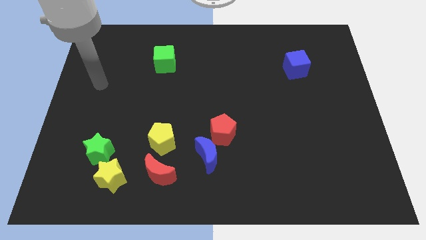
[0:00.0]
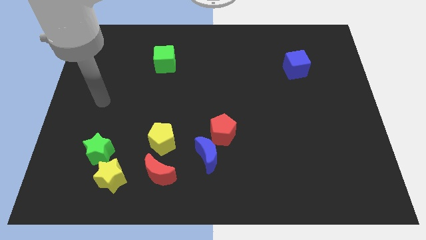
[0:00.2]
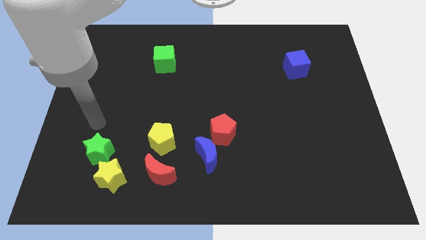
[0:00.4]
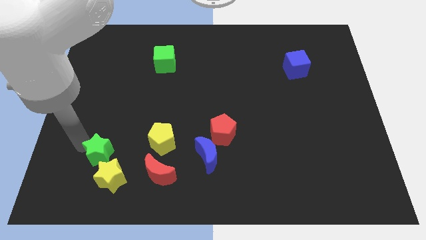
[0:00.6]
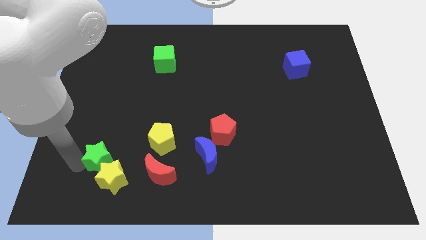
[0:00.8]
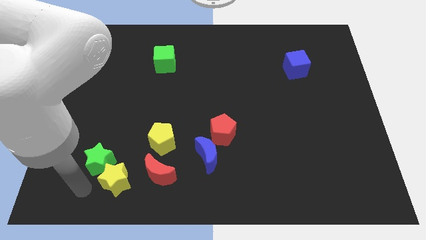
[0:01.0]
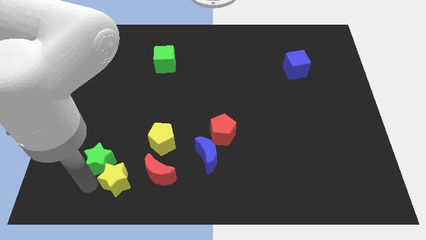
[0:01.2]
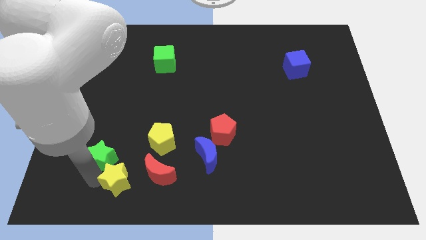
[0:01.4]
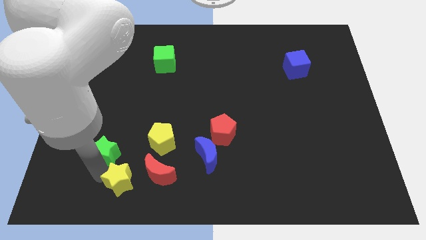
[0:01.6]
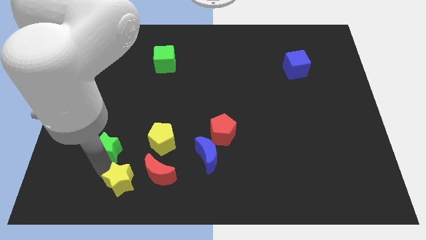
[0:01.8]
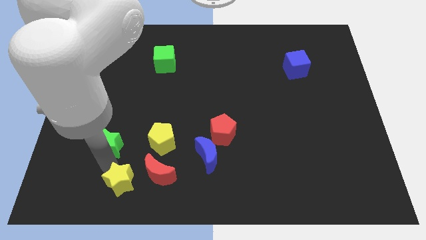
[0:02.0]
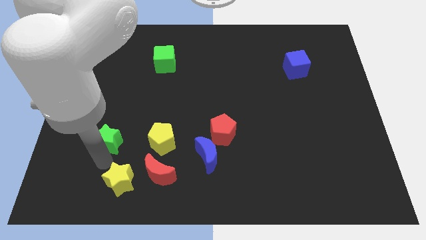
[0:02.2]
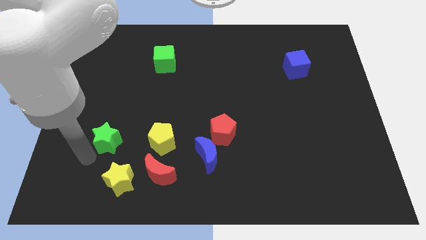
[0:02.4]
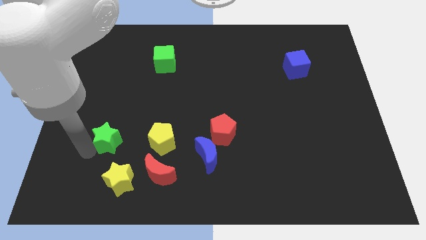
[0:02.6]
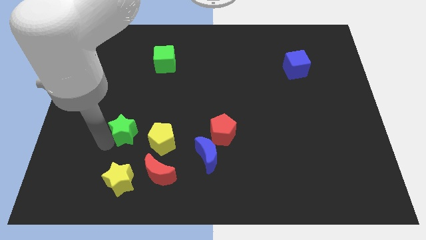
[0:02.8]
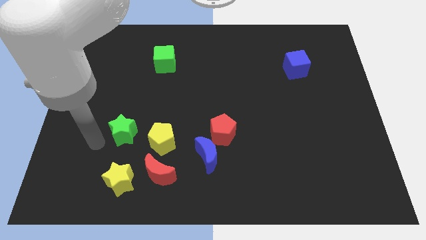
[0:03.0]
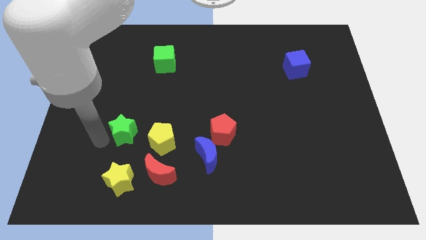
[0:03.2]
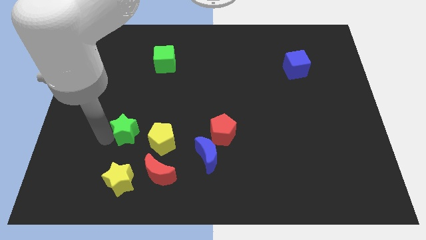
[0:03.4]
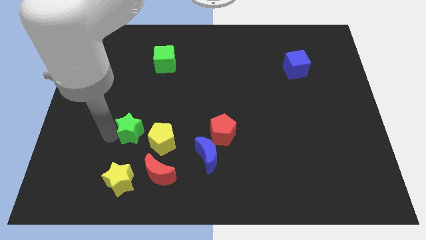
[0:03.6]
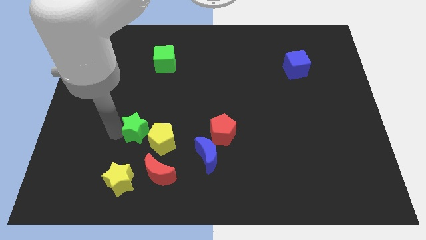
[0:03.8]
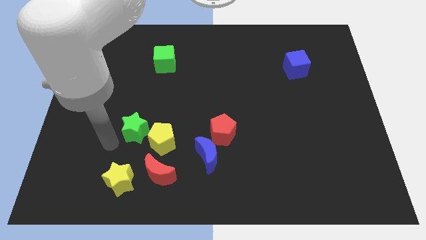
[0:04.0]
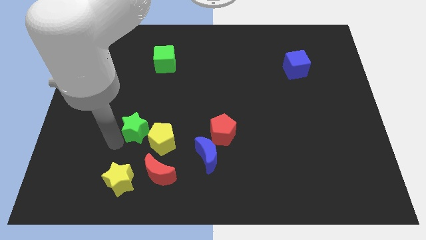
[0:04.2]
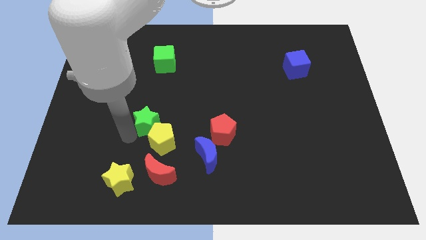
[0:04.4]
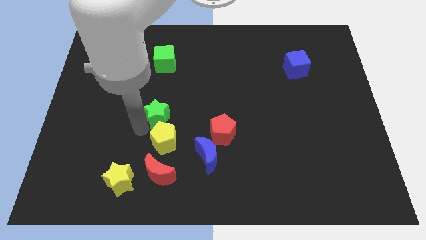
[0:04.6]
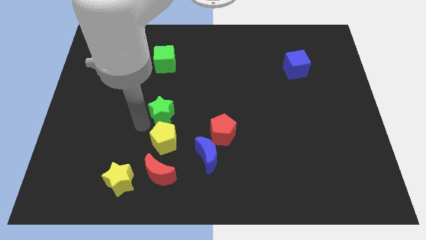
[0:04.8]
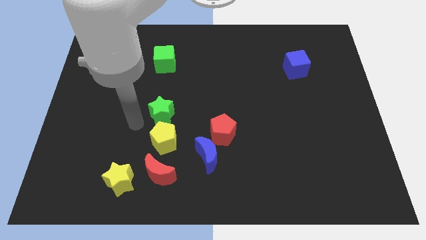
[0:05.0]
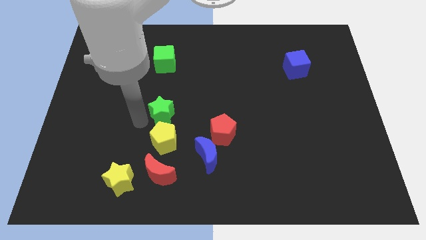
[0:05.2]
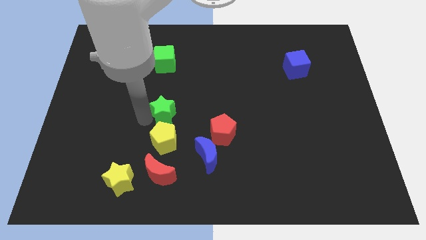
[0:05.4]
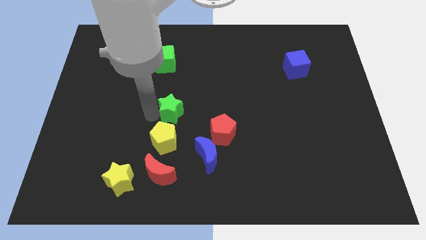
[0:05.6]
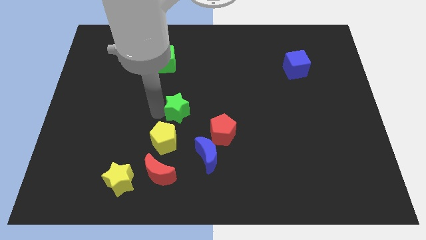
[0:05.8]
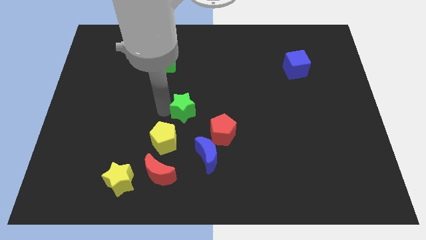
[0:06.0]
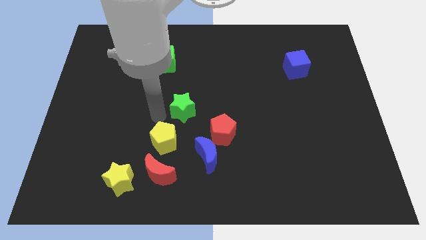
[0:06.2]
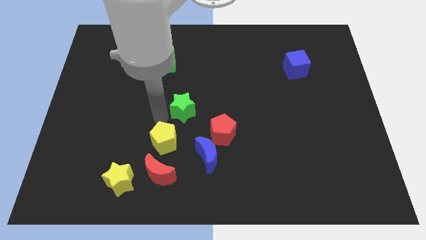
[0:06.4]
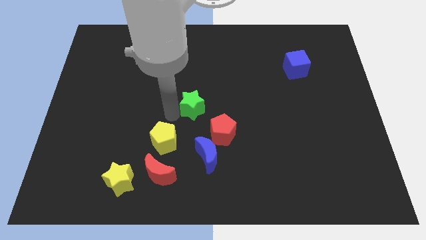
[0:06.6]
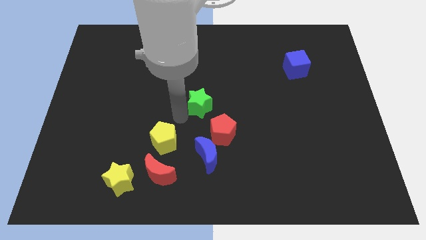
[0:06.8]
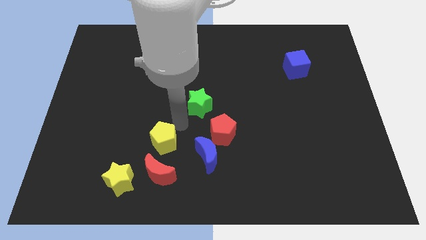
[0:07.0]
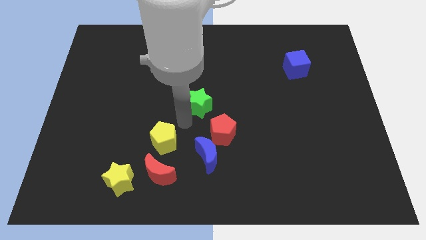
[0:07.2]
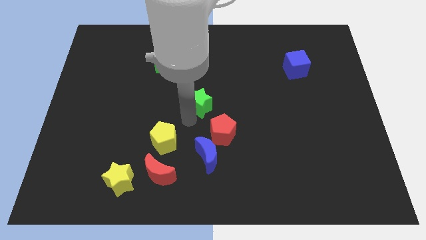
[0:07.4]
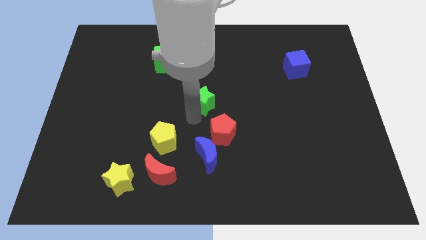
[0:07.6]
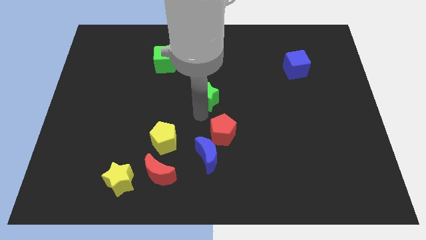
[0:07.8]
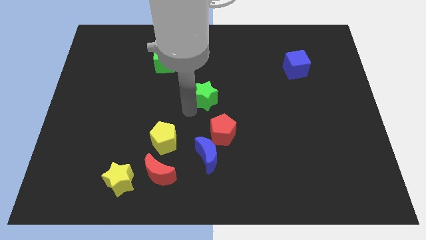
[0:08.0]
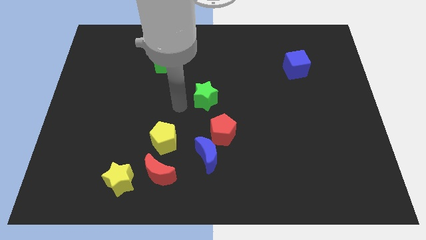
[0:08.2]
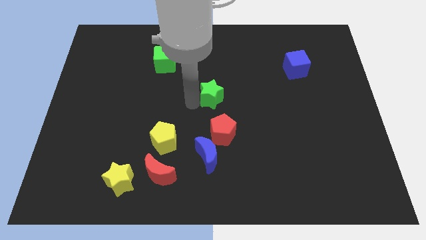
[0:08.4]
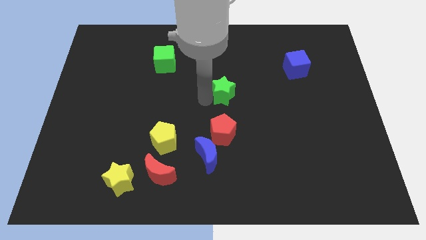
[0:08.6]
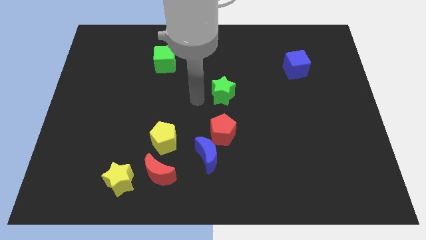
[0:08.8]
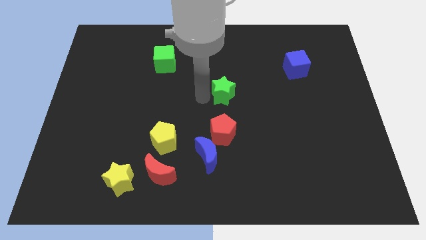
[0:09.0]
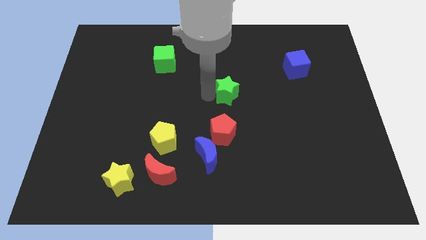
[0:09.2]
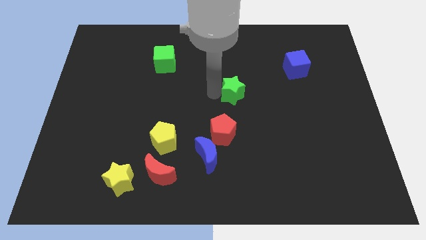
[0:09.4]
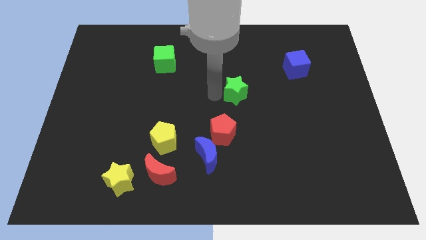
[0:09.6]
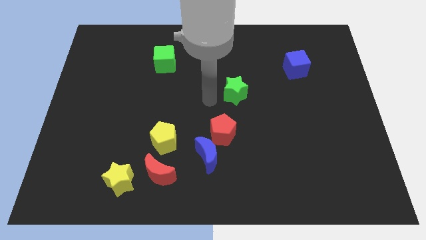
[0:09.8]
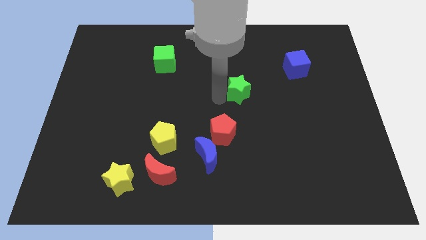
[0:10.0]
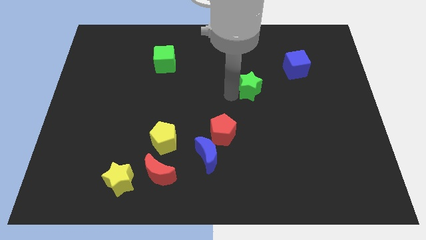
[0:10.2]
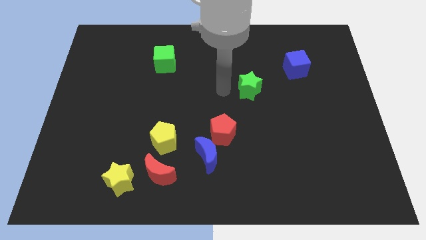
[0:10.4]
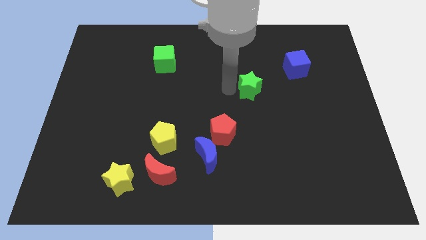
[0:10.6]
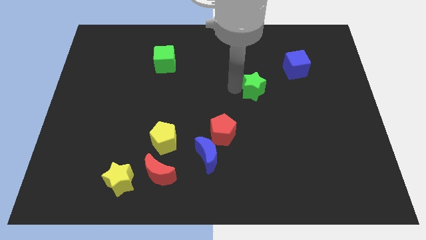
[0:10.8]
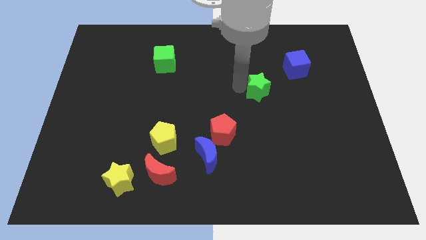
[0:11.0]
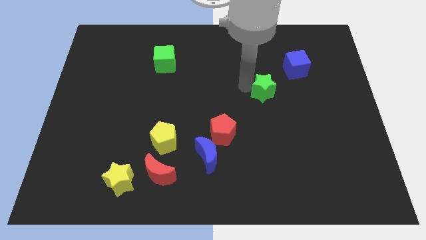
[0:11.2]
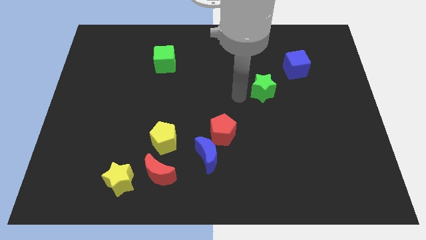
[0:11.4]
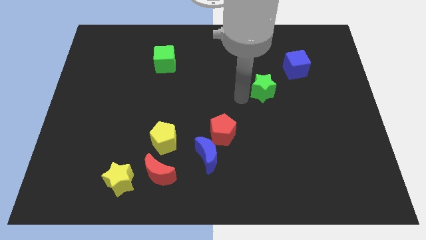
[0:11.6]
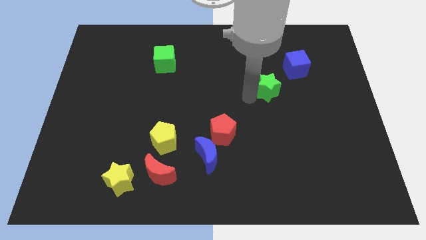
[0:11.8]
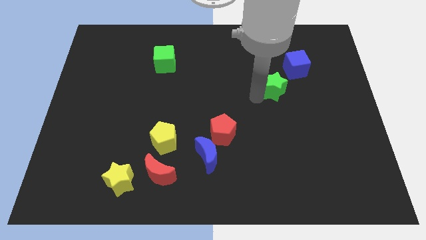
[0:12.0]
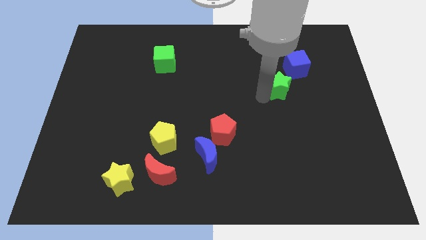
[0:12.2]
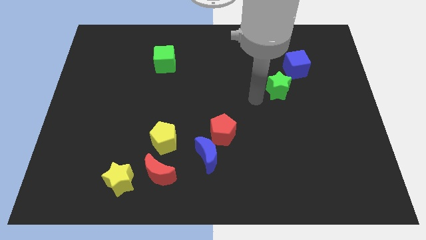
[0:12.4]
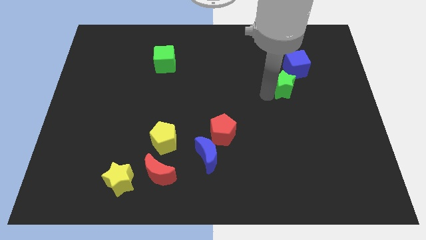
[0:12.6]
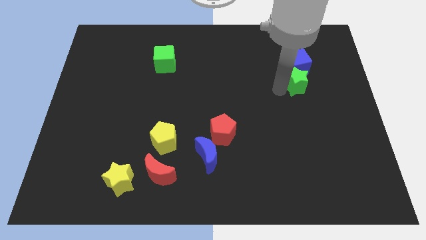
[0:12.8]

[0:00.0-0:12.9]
put the green star to the bottom right side of the blue cube
